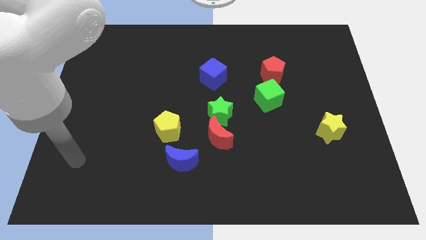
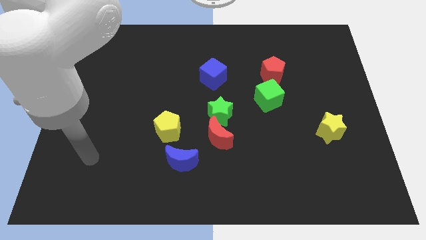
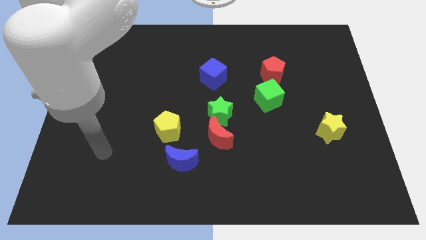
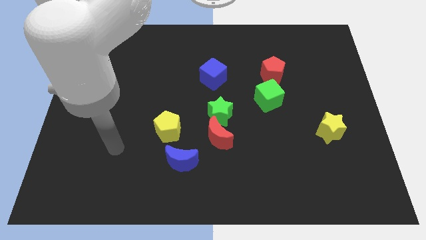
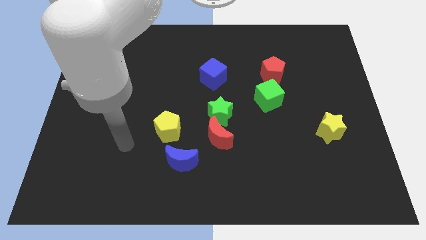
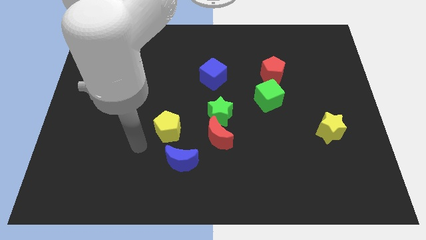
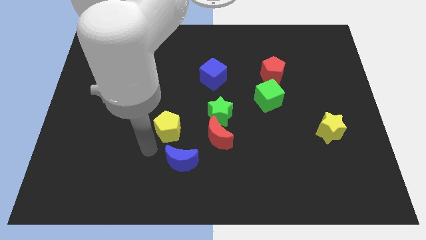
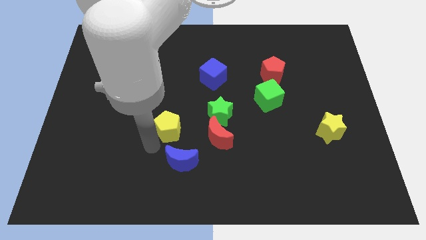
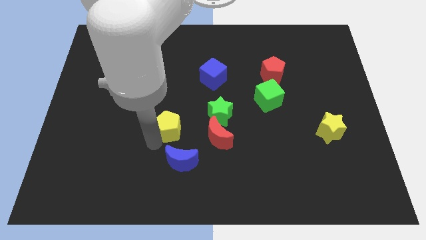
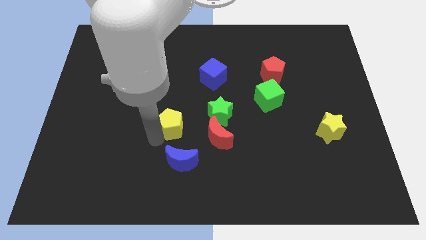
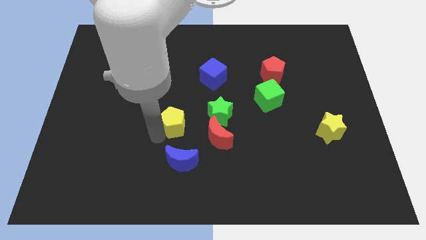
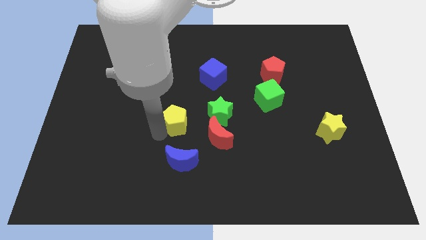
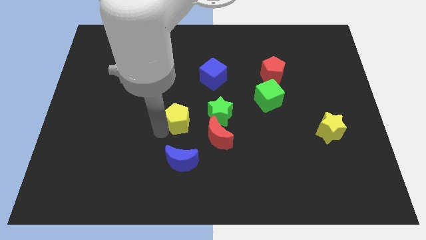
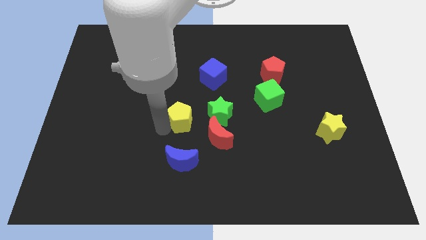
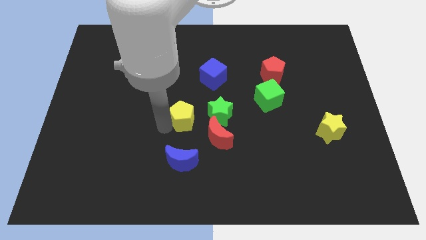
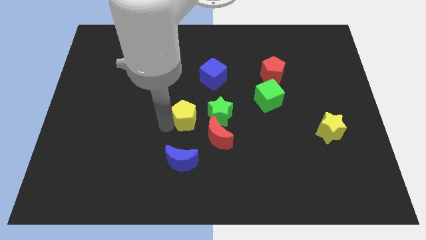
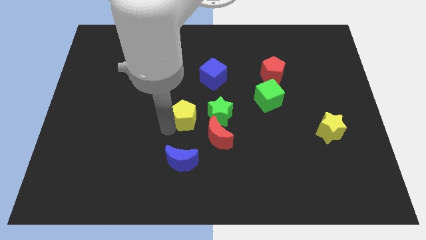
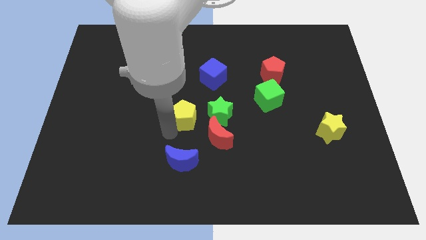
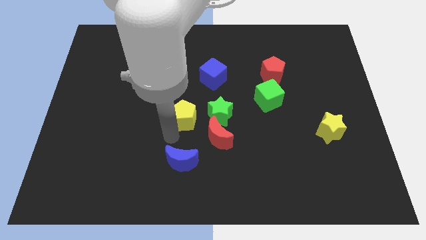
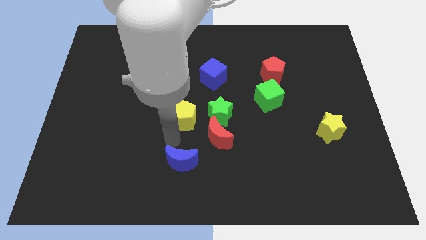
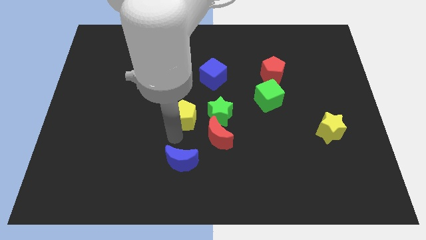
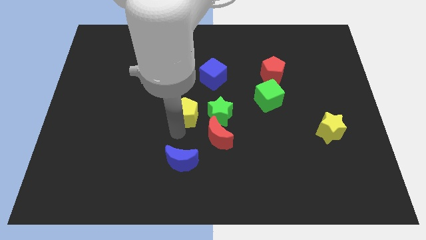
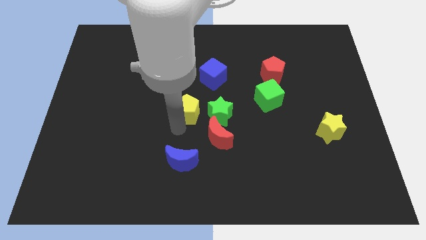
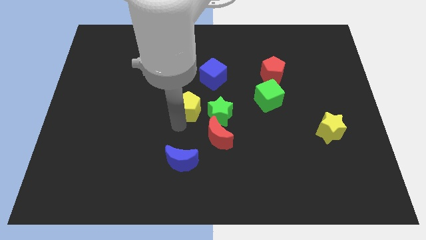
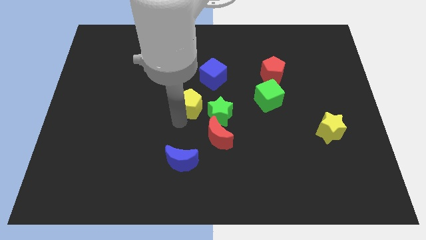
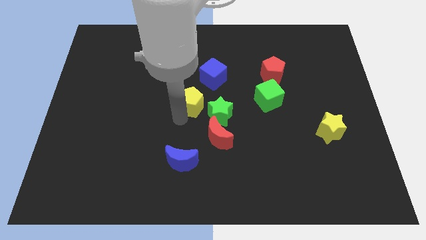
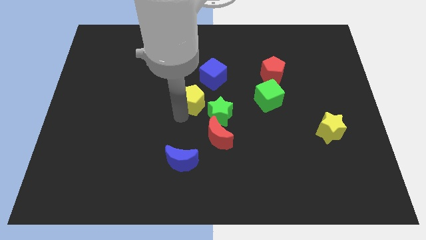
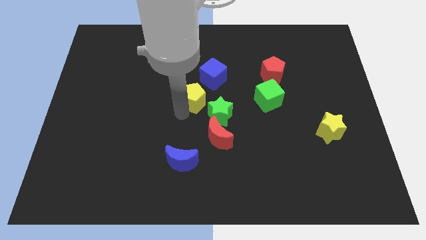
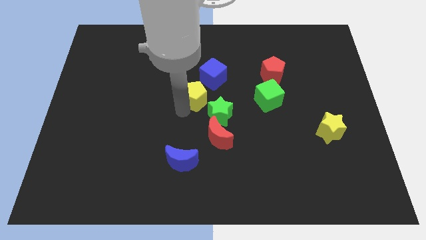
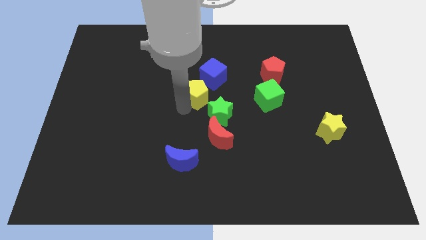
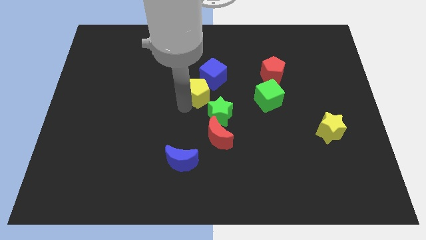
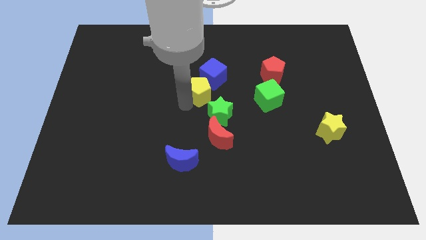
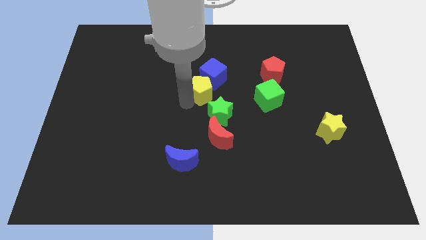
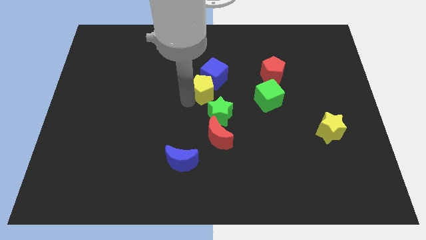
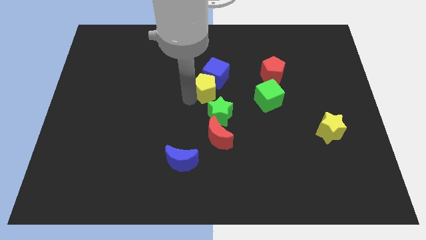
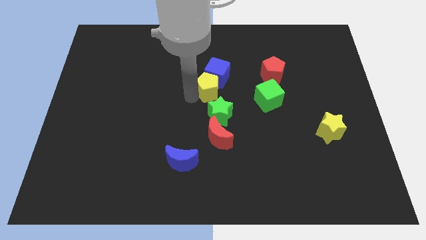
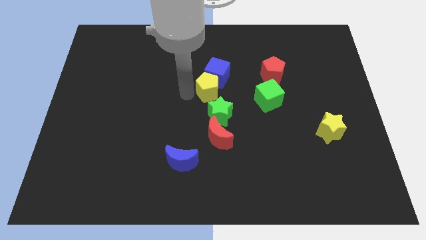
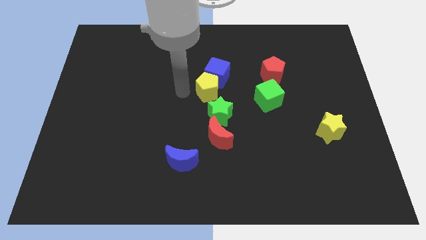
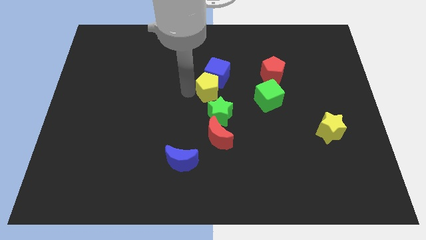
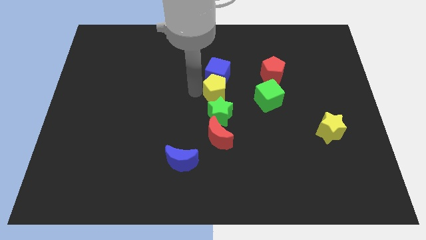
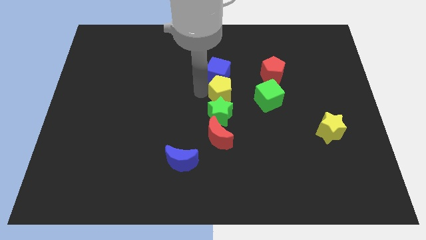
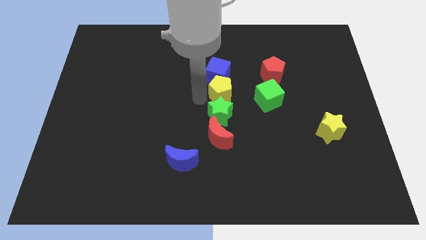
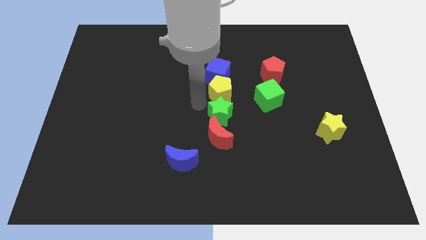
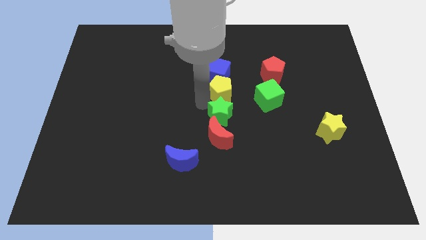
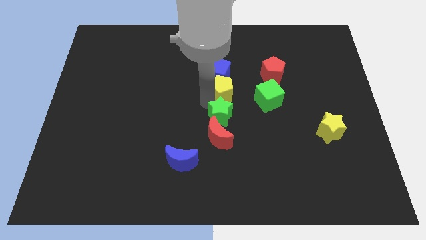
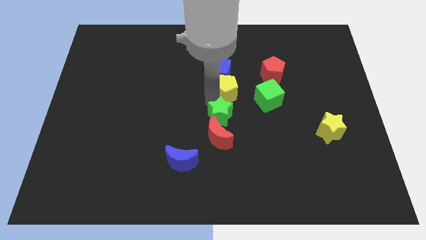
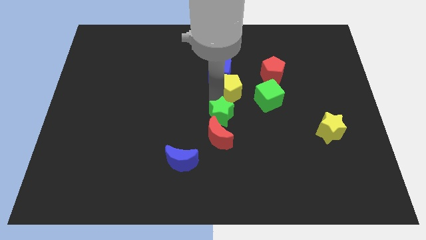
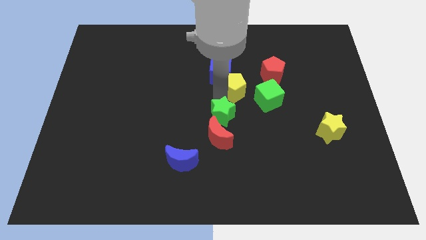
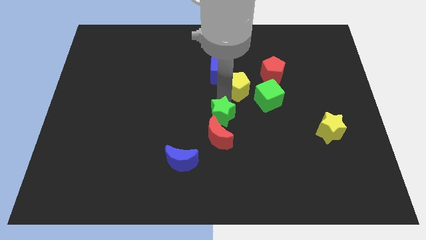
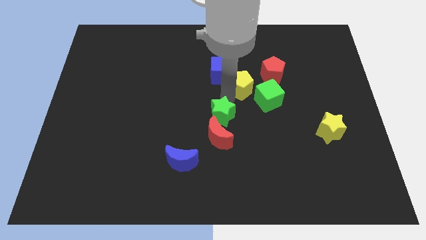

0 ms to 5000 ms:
move the yellow pentagon right of the blue cube

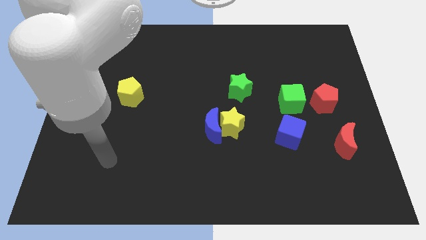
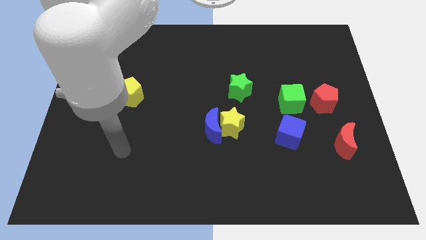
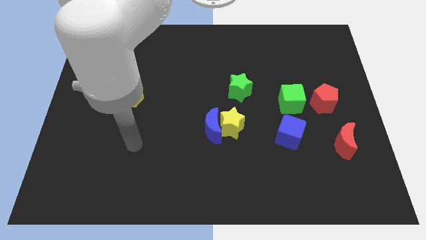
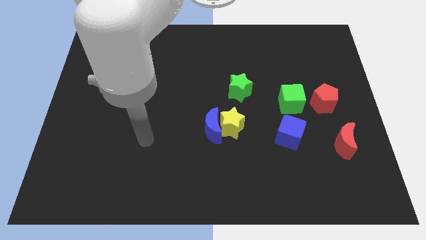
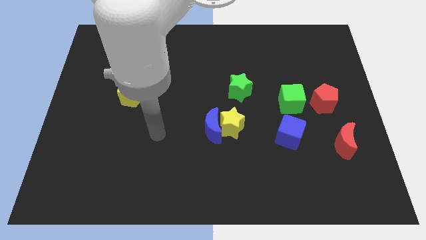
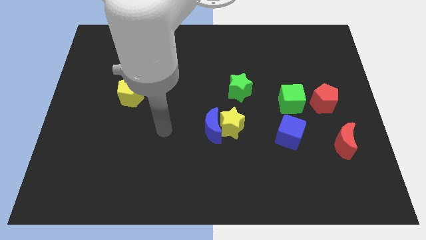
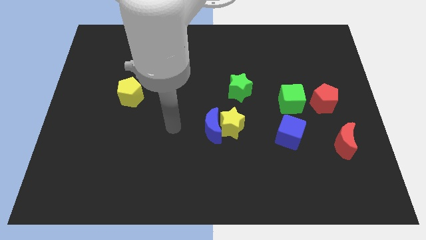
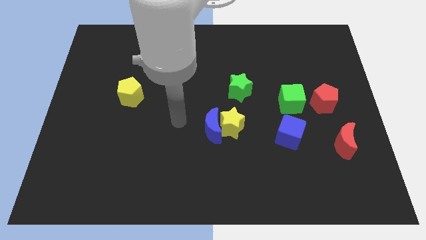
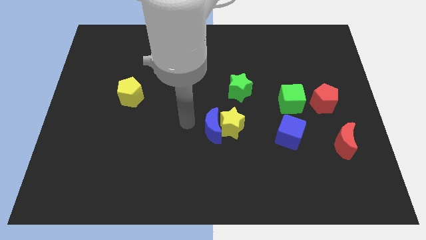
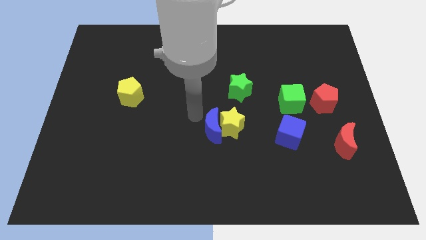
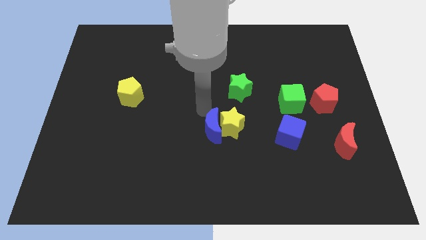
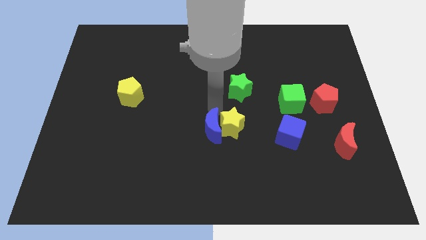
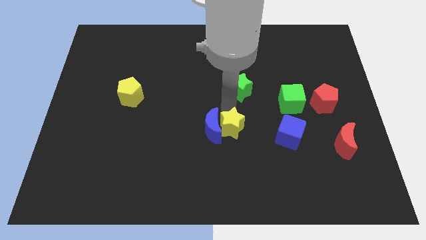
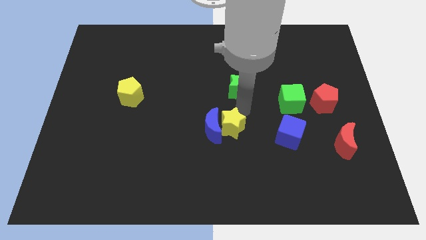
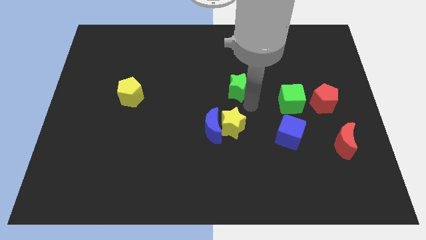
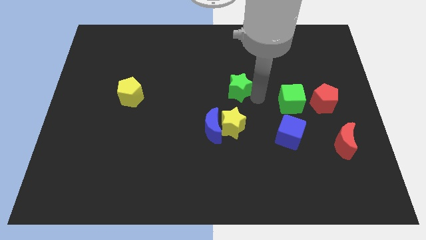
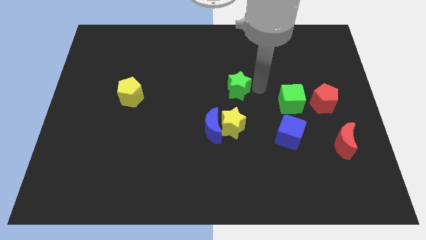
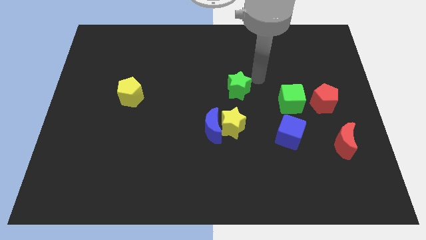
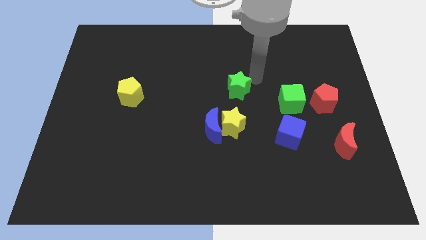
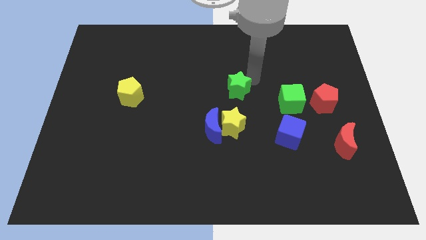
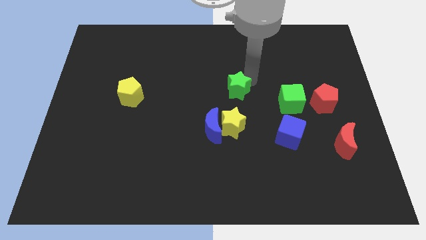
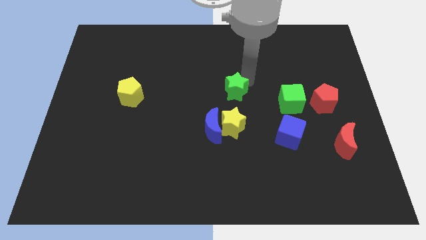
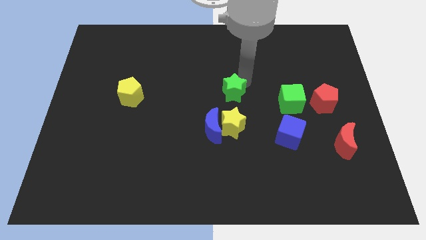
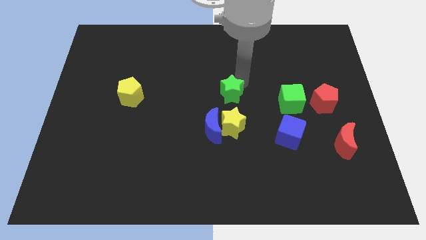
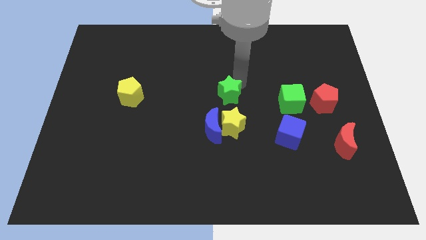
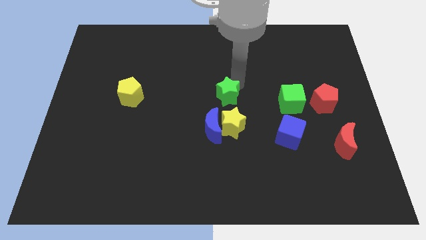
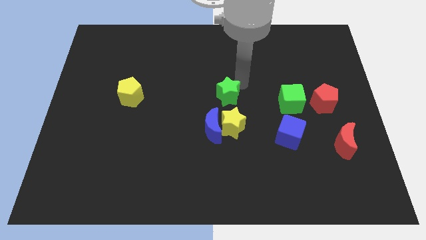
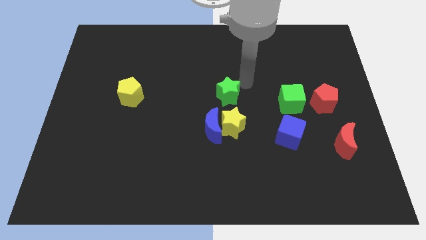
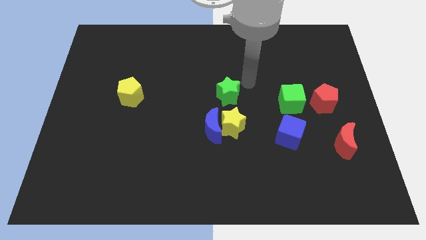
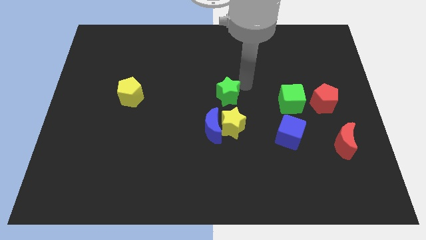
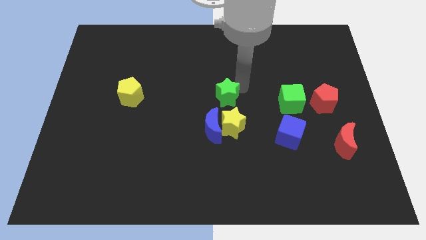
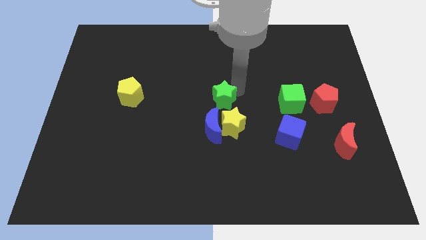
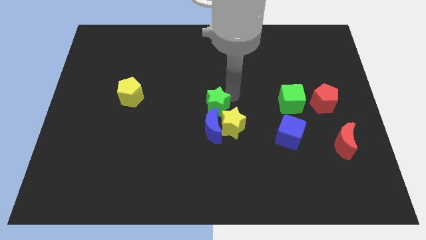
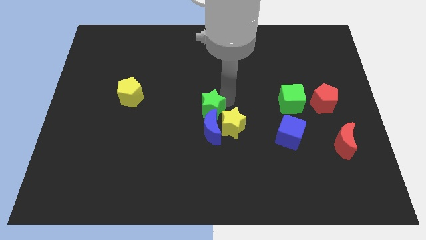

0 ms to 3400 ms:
slide the green star diagonally up and to the left of the blue moon
